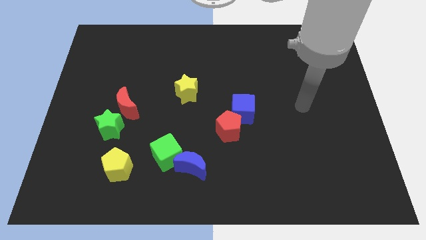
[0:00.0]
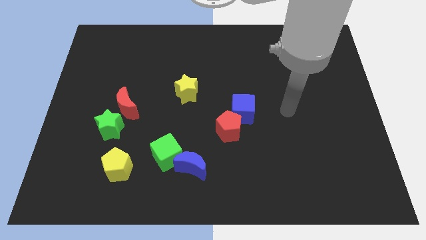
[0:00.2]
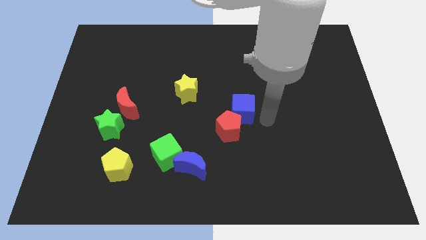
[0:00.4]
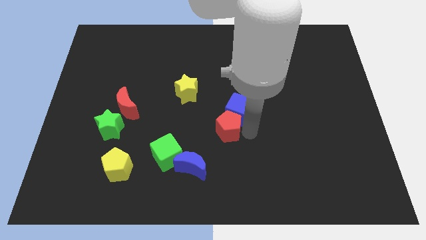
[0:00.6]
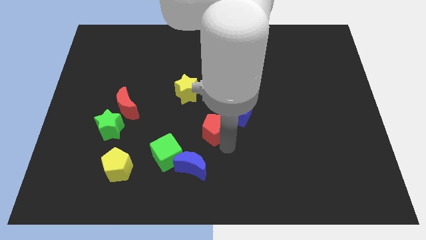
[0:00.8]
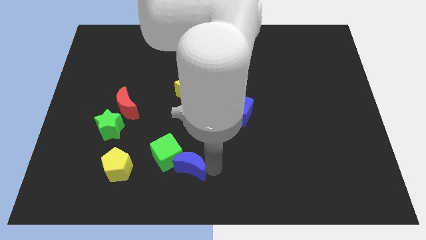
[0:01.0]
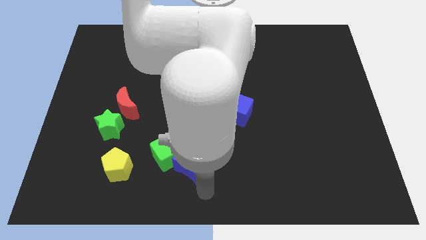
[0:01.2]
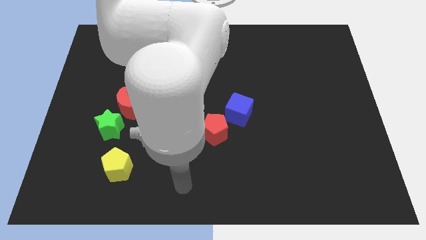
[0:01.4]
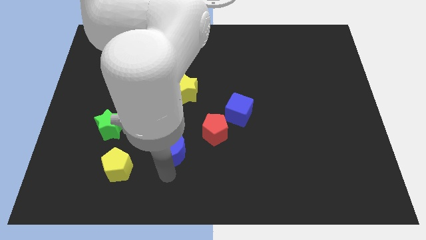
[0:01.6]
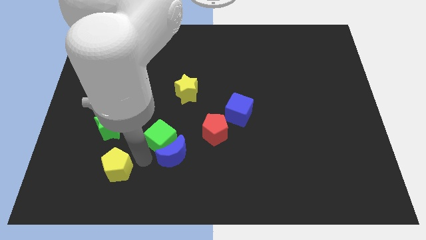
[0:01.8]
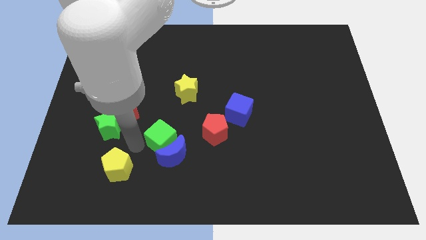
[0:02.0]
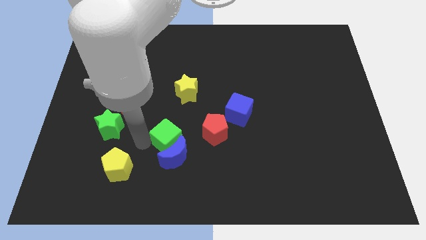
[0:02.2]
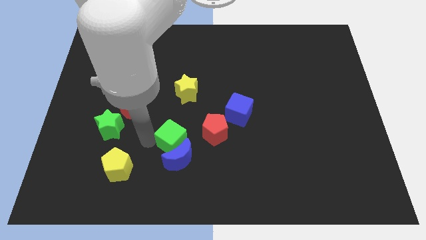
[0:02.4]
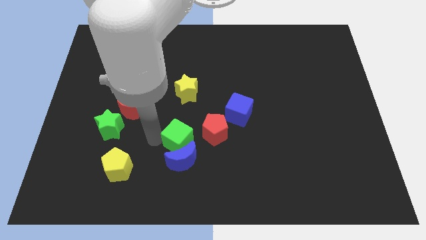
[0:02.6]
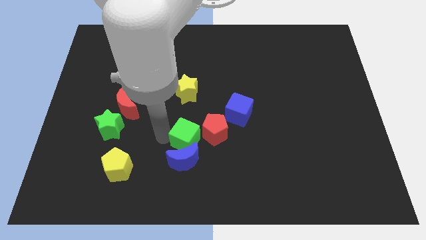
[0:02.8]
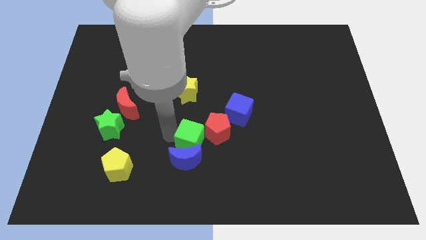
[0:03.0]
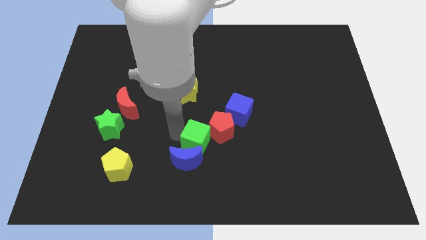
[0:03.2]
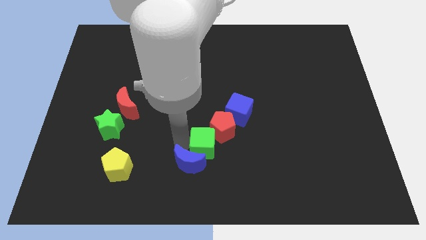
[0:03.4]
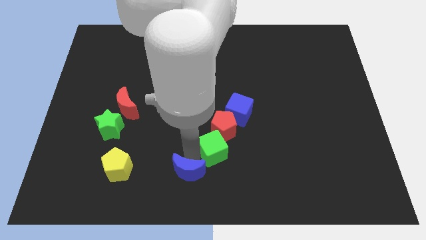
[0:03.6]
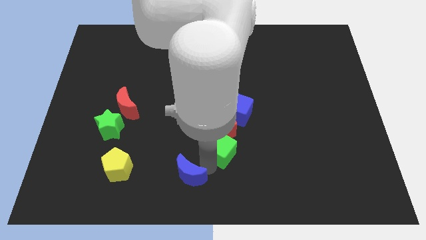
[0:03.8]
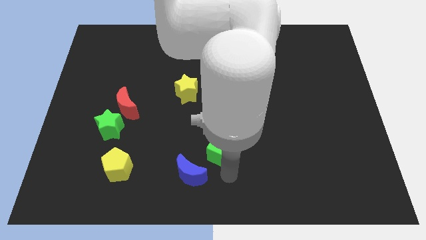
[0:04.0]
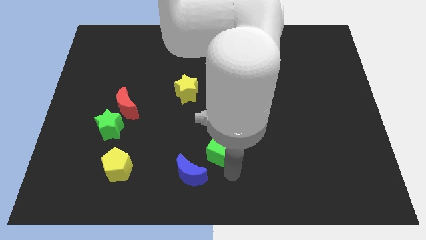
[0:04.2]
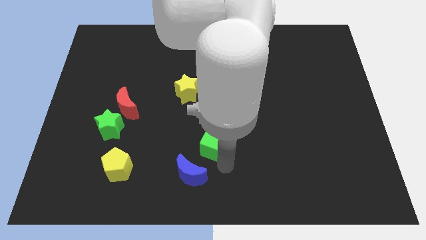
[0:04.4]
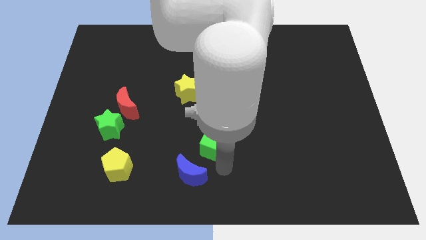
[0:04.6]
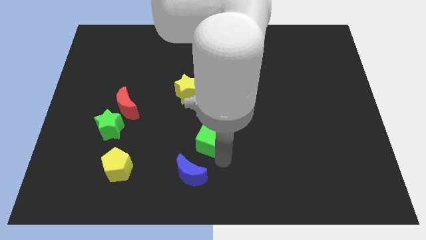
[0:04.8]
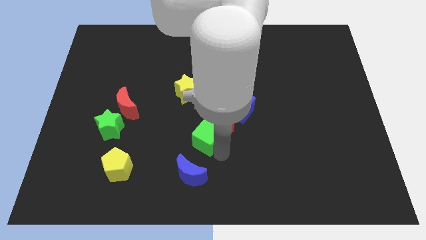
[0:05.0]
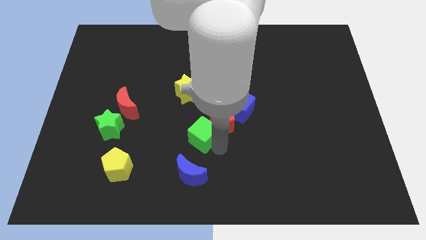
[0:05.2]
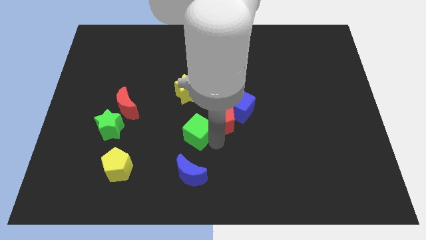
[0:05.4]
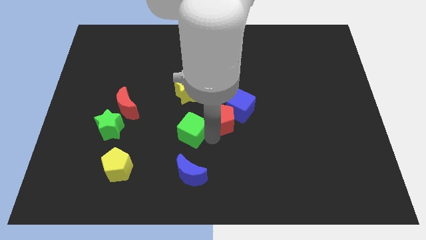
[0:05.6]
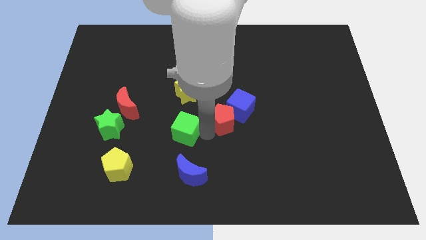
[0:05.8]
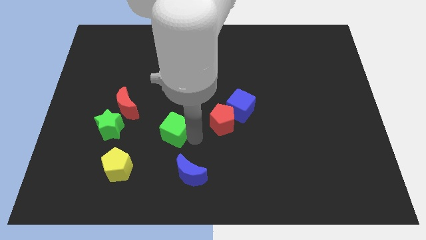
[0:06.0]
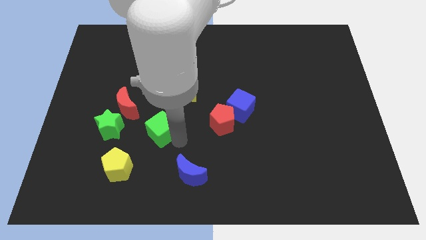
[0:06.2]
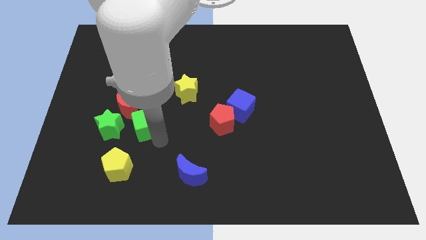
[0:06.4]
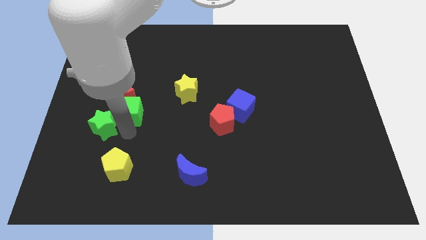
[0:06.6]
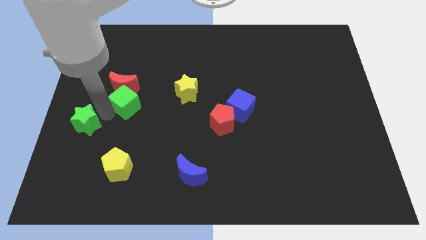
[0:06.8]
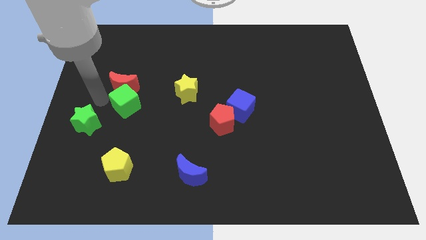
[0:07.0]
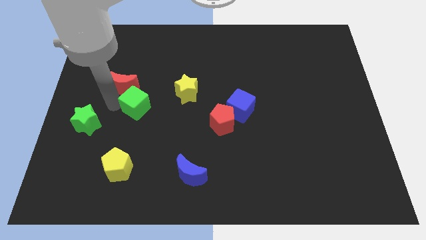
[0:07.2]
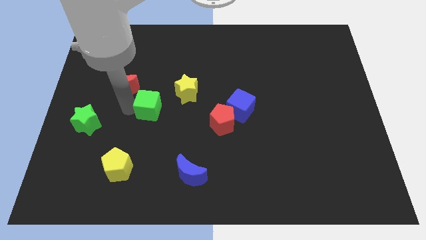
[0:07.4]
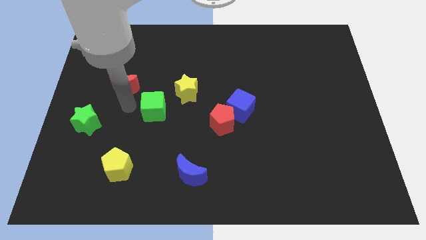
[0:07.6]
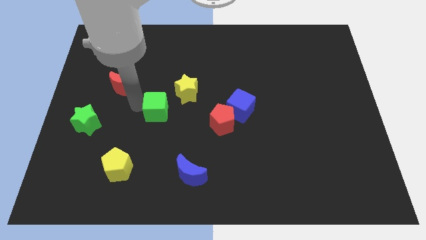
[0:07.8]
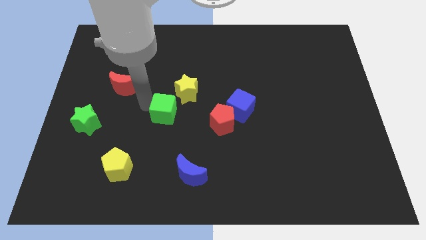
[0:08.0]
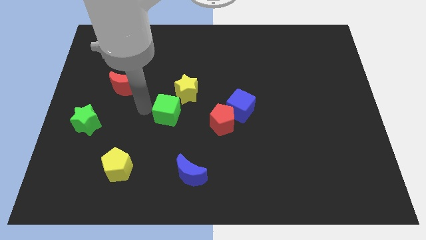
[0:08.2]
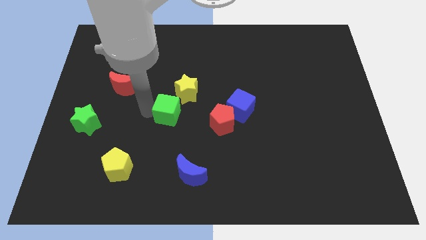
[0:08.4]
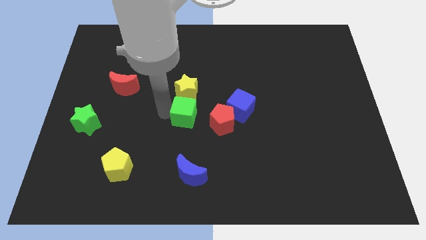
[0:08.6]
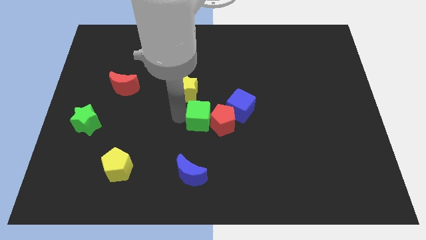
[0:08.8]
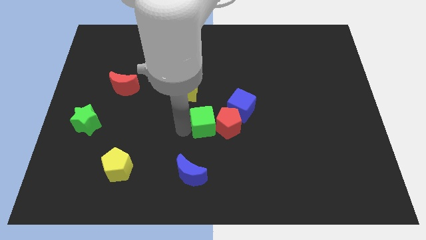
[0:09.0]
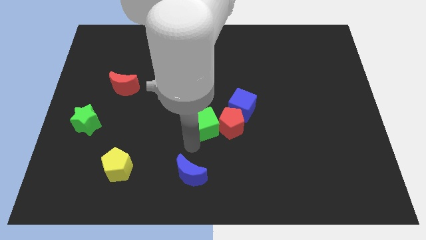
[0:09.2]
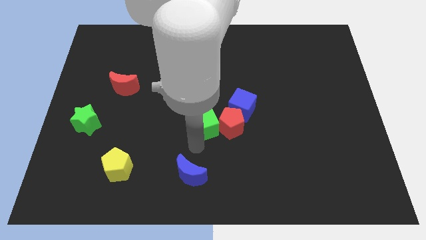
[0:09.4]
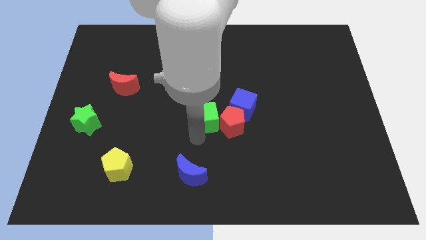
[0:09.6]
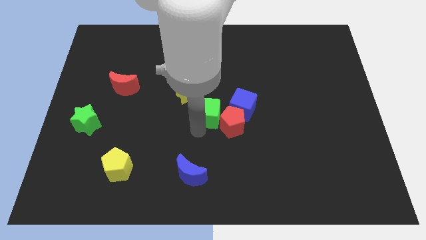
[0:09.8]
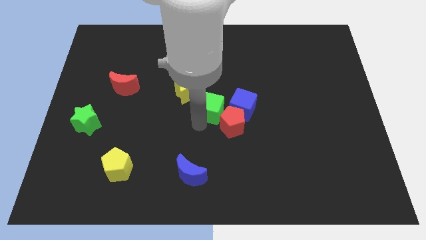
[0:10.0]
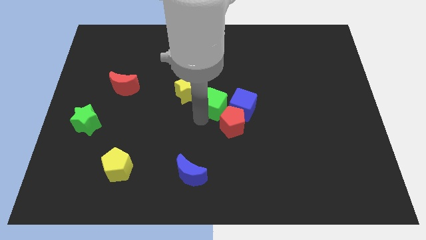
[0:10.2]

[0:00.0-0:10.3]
put the green cube to the top left of the blue cube

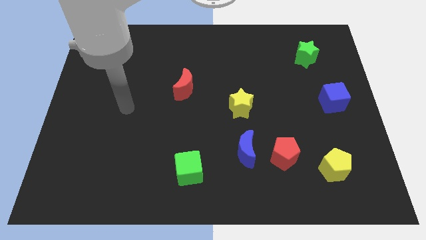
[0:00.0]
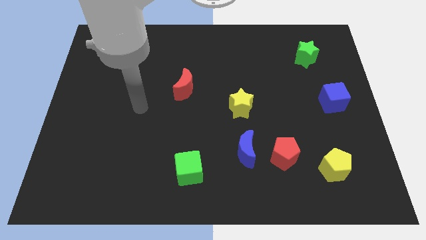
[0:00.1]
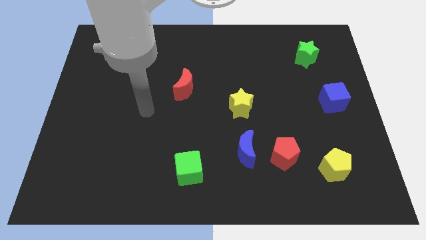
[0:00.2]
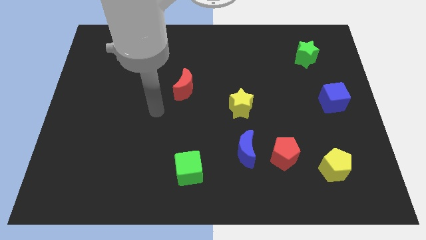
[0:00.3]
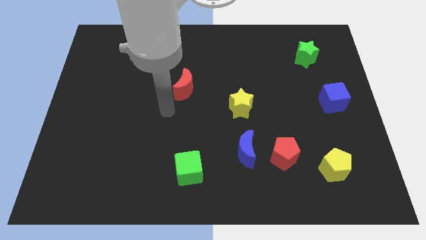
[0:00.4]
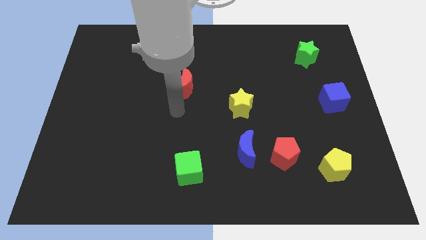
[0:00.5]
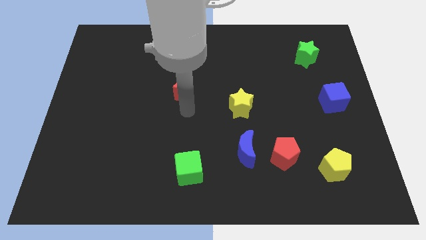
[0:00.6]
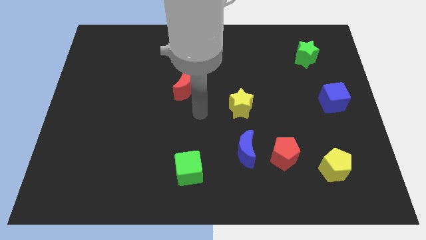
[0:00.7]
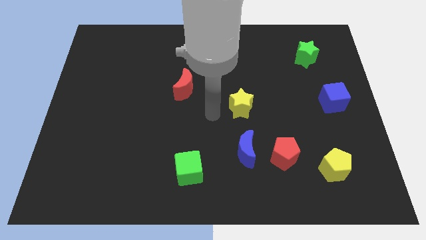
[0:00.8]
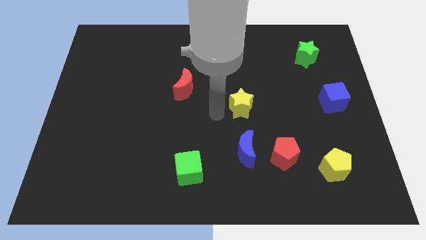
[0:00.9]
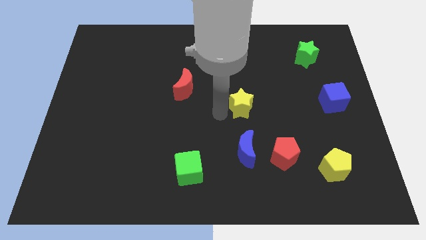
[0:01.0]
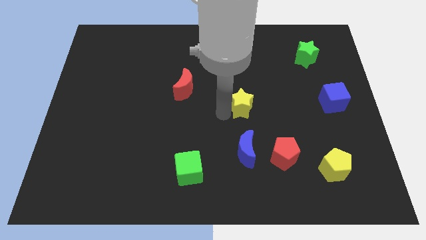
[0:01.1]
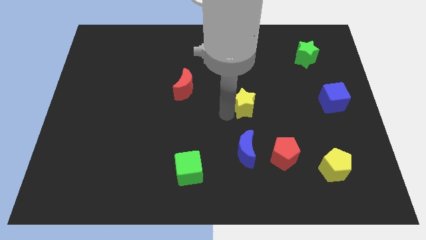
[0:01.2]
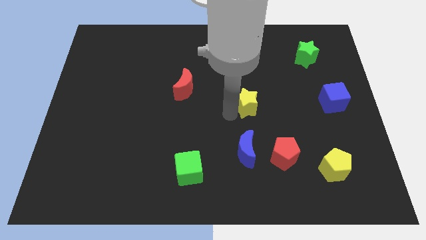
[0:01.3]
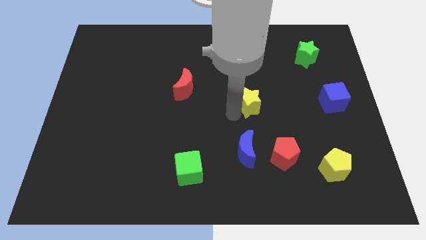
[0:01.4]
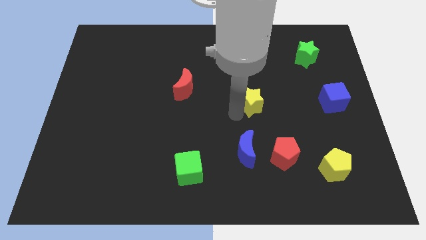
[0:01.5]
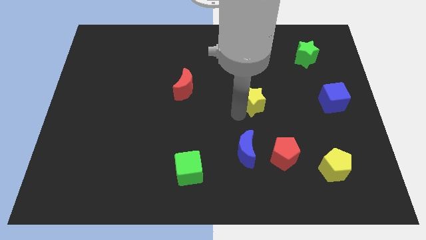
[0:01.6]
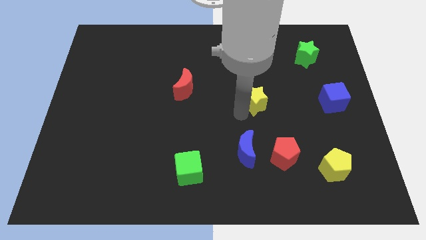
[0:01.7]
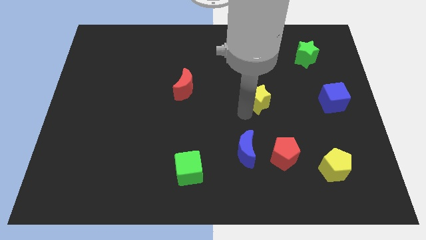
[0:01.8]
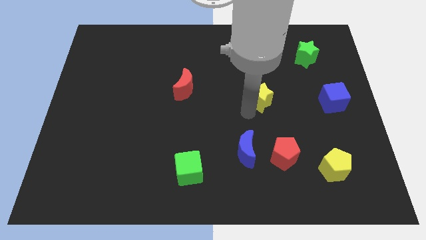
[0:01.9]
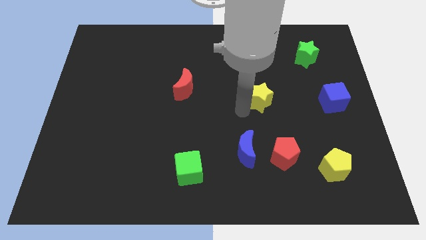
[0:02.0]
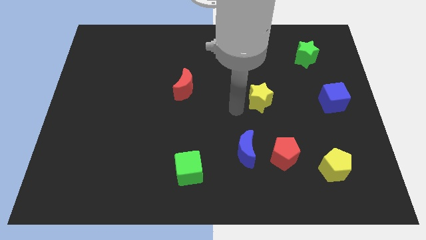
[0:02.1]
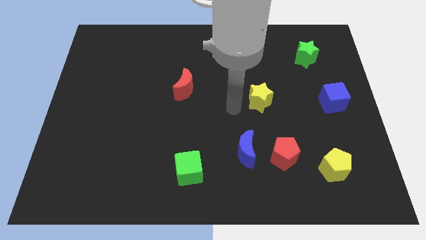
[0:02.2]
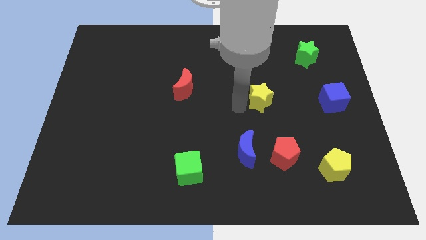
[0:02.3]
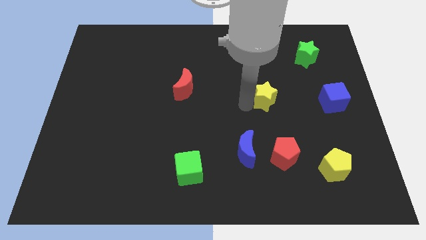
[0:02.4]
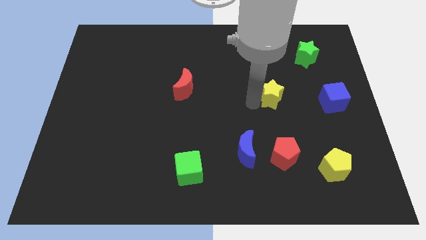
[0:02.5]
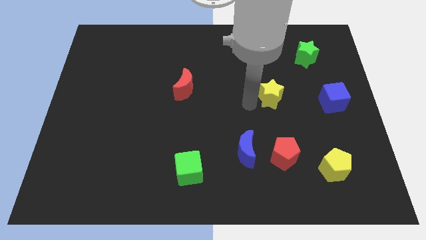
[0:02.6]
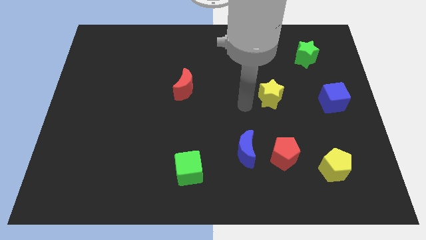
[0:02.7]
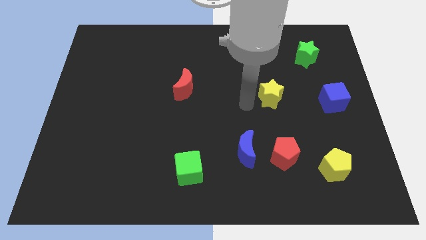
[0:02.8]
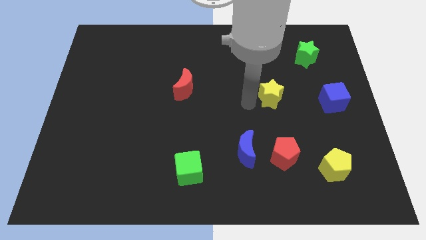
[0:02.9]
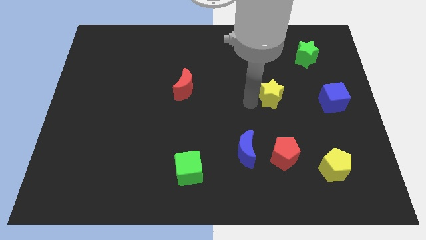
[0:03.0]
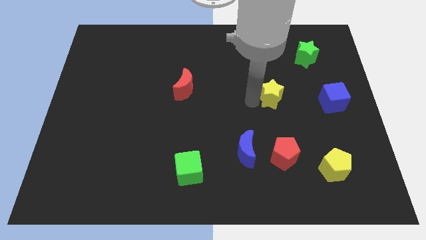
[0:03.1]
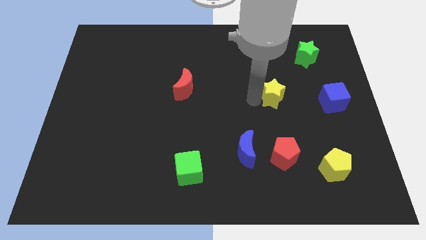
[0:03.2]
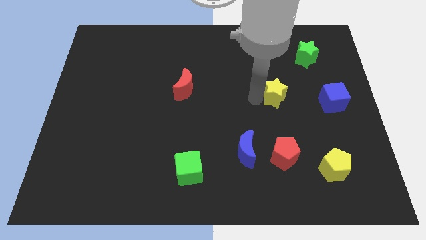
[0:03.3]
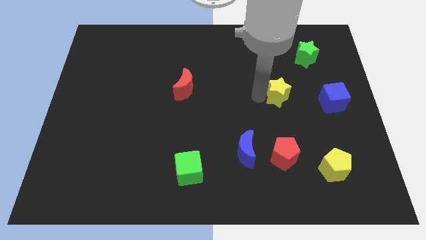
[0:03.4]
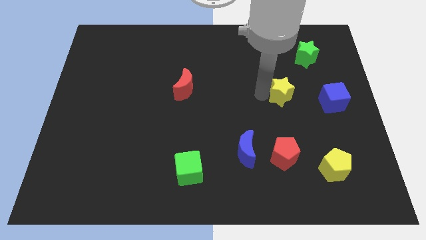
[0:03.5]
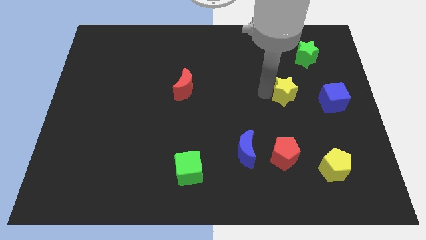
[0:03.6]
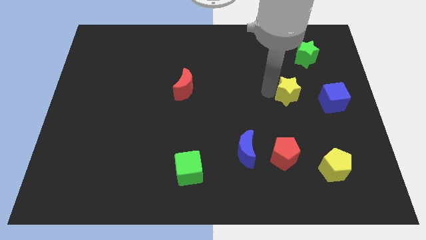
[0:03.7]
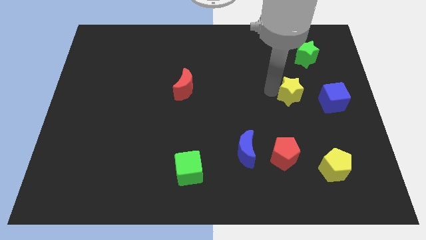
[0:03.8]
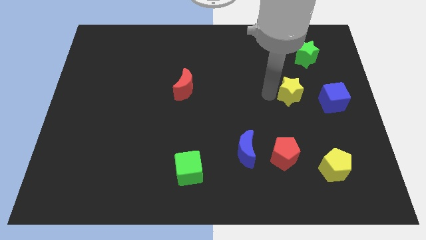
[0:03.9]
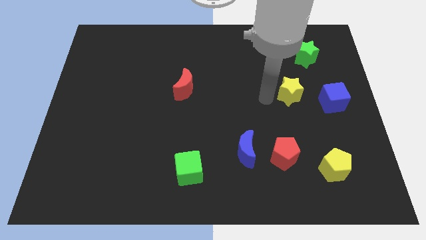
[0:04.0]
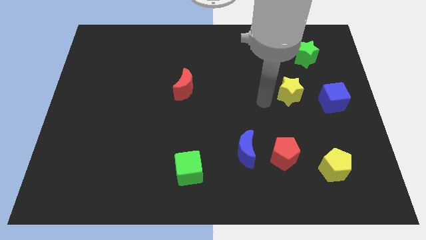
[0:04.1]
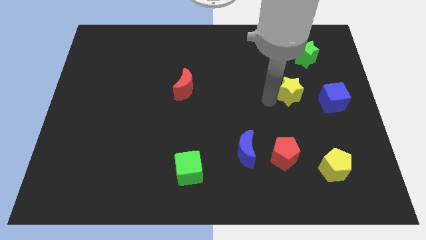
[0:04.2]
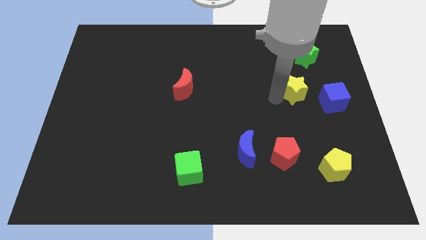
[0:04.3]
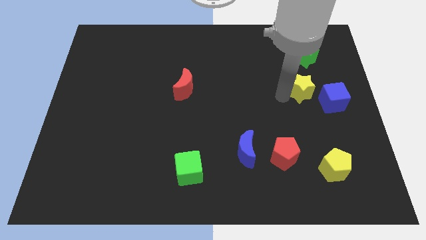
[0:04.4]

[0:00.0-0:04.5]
put the yellow star to the bottom side of the green star
